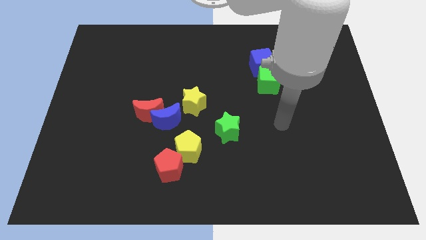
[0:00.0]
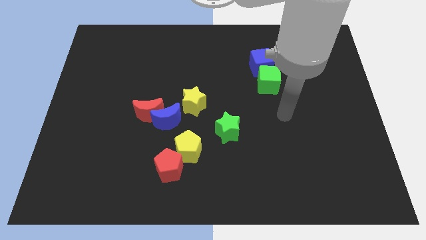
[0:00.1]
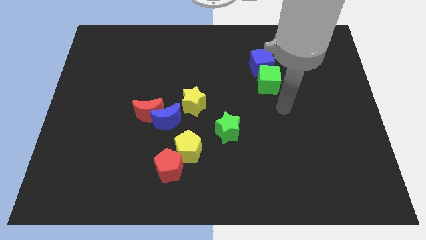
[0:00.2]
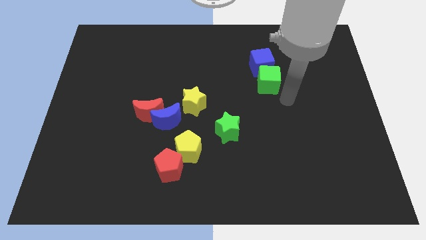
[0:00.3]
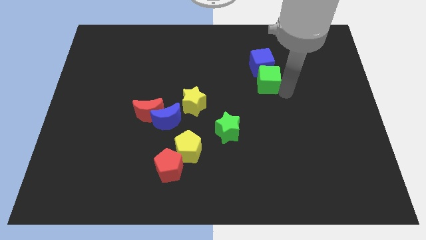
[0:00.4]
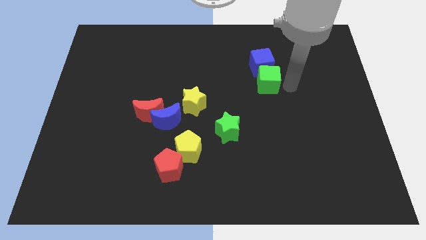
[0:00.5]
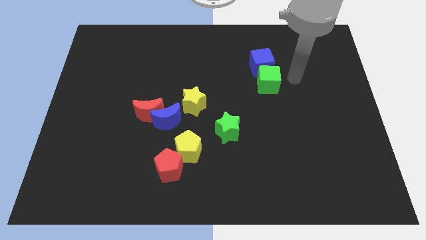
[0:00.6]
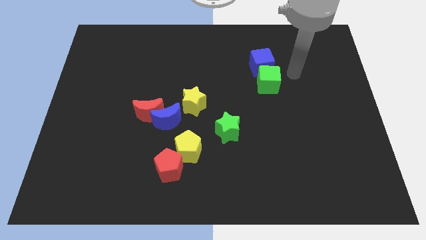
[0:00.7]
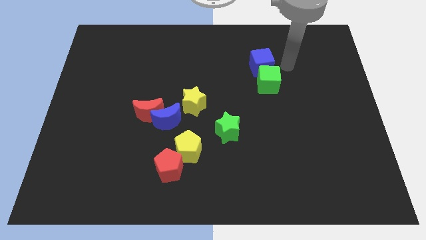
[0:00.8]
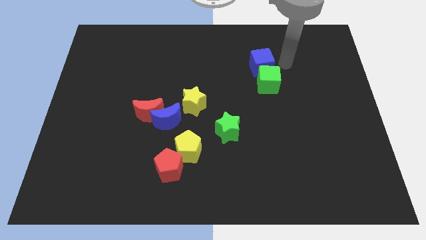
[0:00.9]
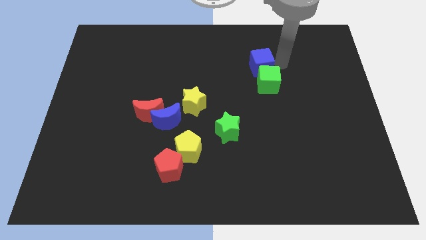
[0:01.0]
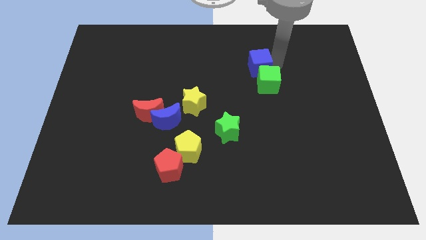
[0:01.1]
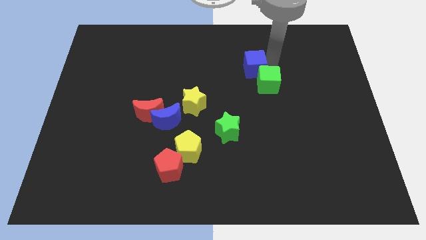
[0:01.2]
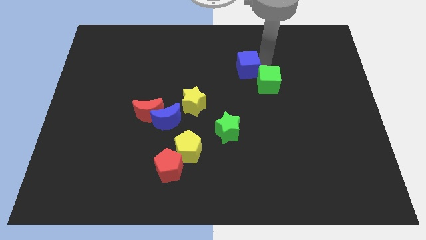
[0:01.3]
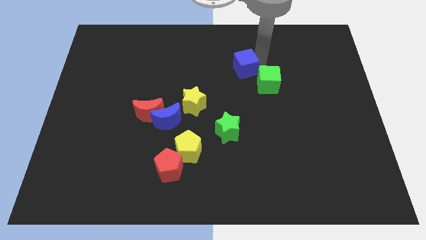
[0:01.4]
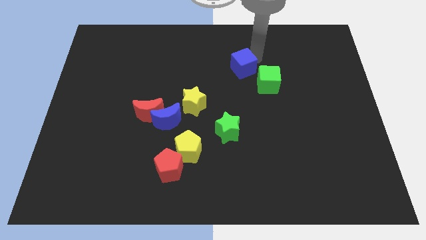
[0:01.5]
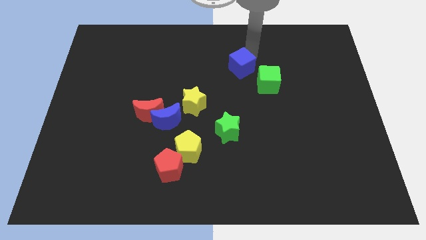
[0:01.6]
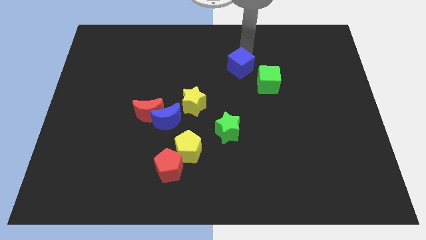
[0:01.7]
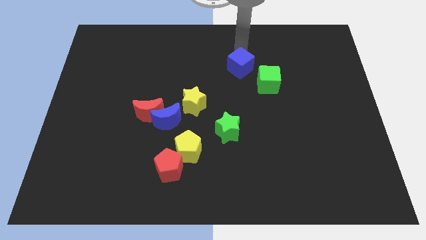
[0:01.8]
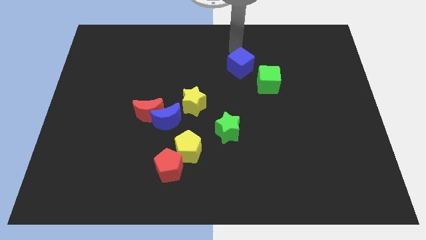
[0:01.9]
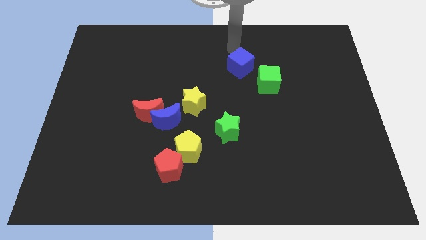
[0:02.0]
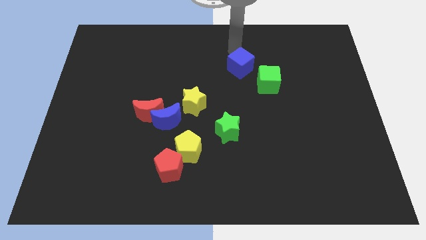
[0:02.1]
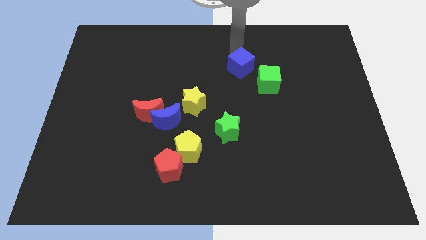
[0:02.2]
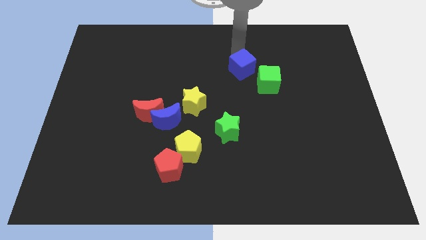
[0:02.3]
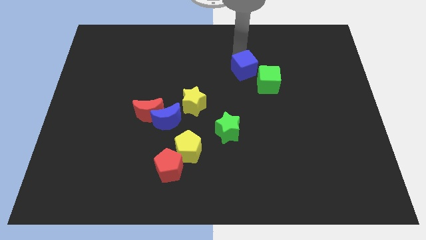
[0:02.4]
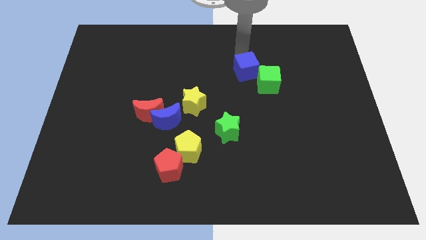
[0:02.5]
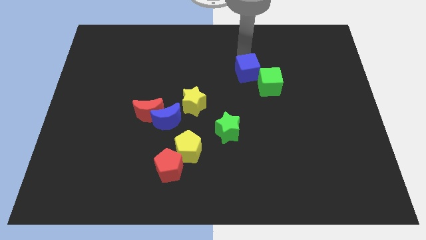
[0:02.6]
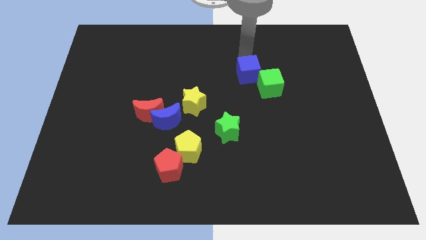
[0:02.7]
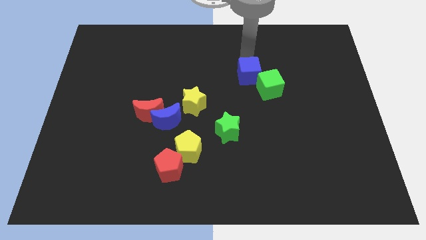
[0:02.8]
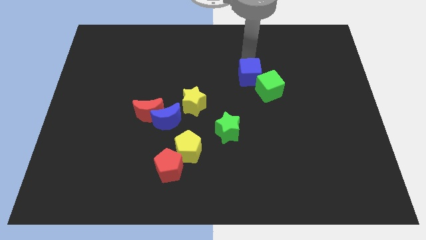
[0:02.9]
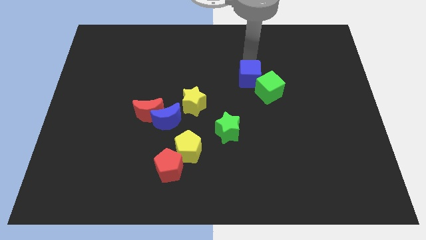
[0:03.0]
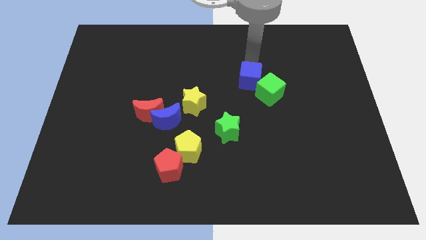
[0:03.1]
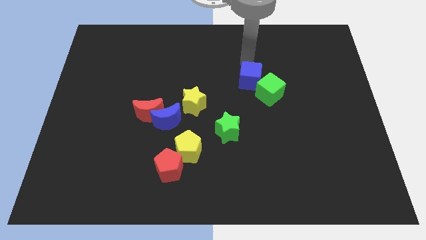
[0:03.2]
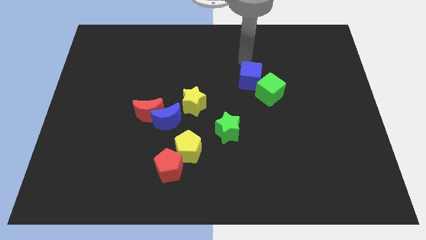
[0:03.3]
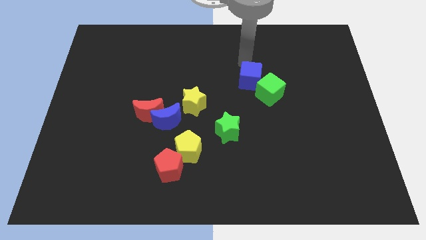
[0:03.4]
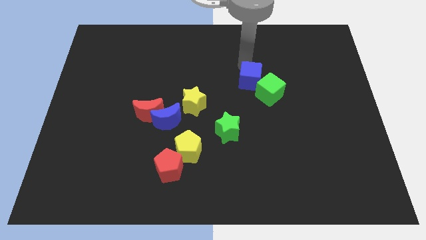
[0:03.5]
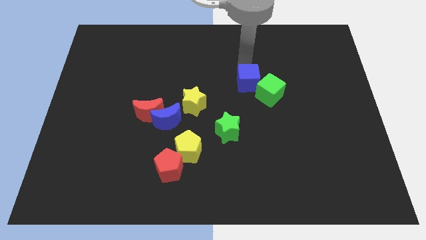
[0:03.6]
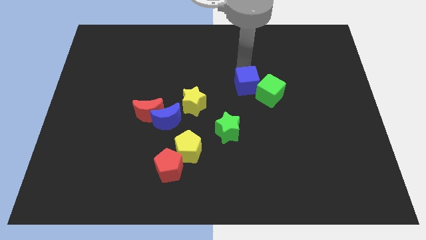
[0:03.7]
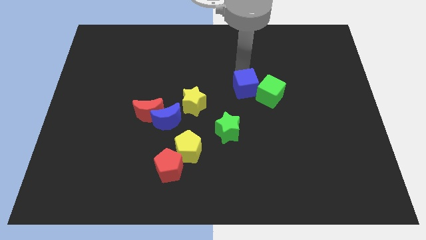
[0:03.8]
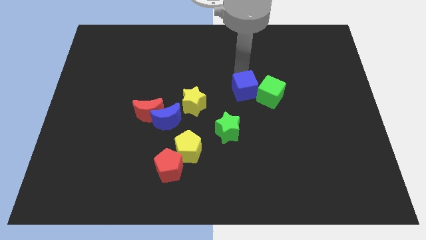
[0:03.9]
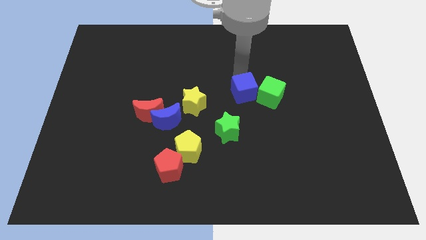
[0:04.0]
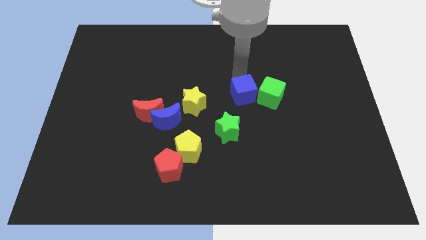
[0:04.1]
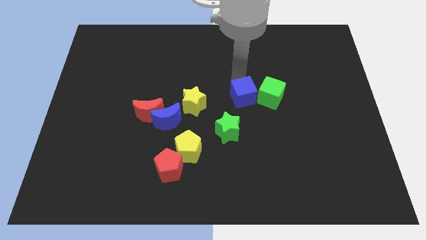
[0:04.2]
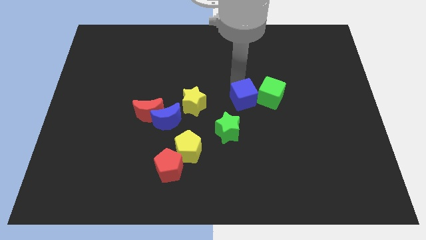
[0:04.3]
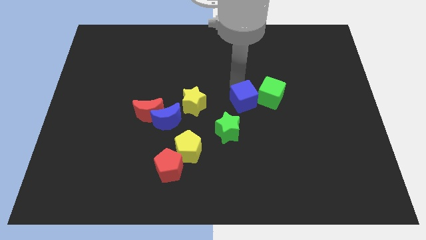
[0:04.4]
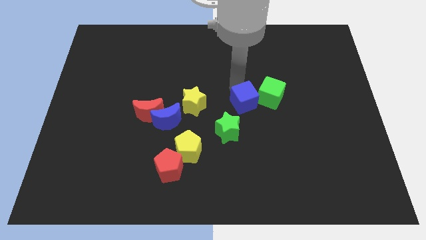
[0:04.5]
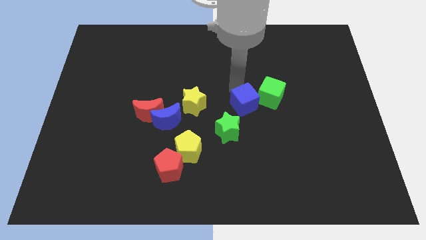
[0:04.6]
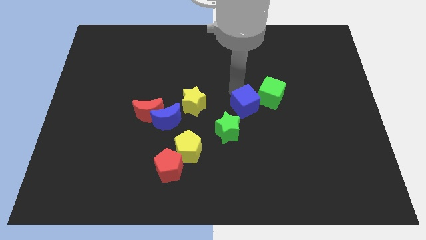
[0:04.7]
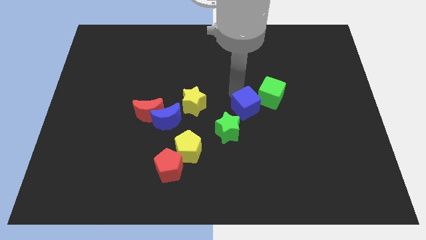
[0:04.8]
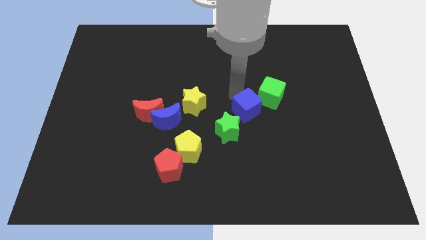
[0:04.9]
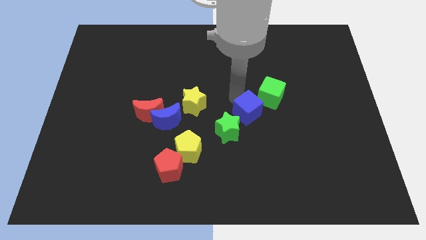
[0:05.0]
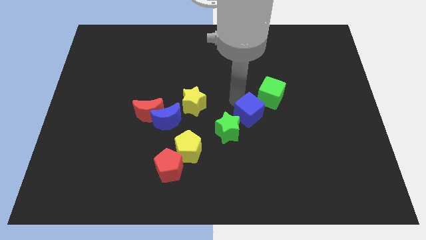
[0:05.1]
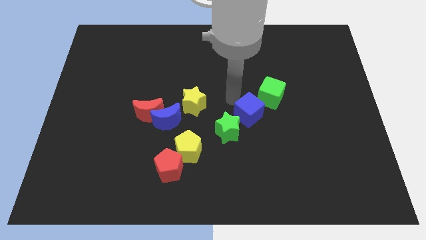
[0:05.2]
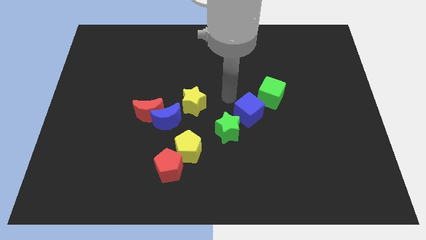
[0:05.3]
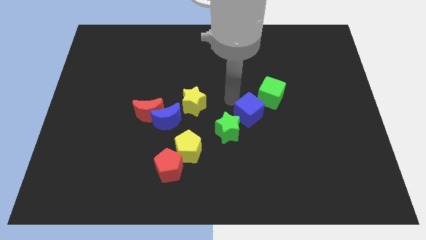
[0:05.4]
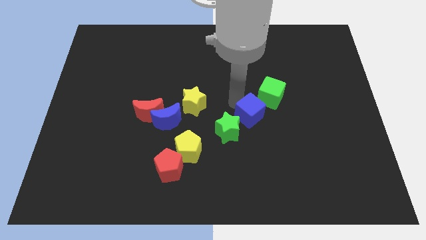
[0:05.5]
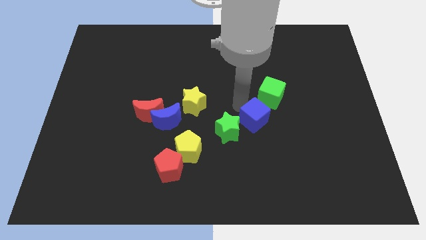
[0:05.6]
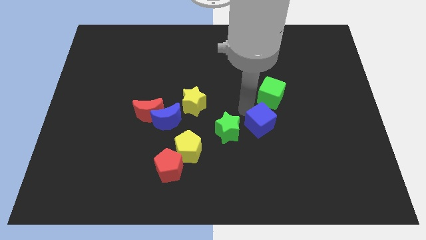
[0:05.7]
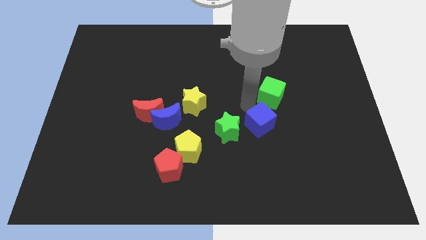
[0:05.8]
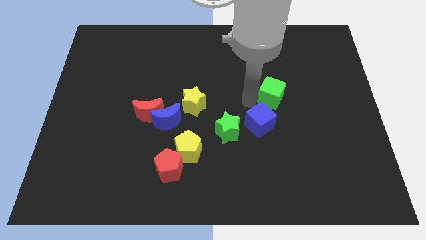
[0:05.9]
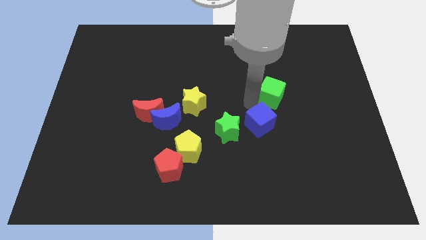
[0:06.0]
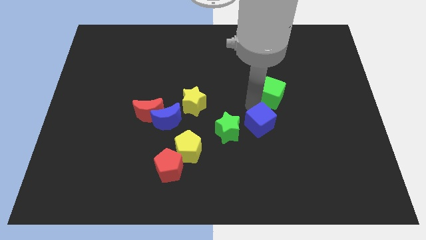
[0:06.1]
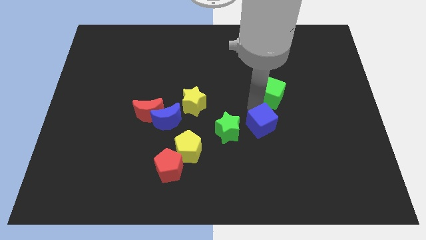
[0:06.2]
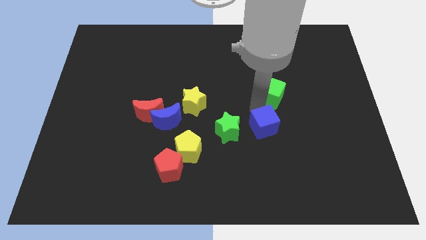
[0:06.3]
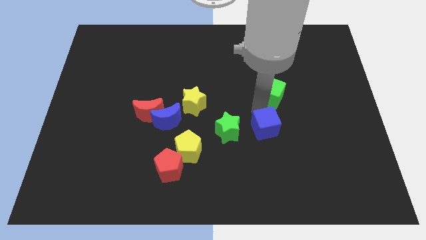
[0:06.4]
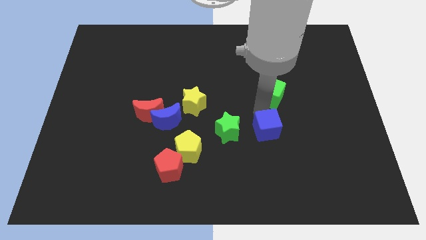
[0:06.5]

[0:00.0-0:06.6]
move the blue cube down

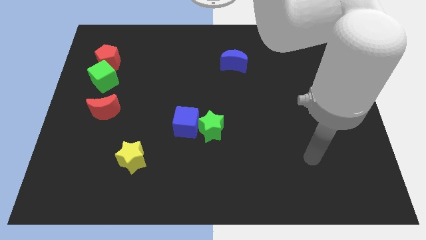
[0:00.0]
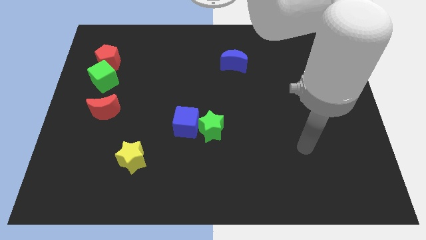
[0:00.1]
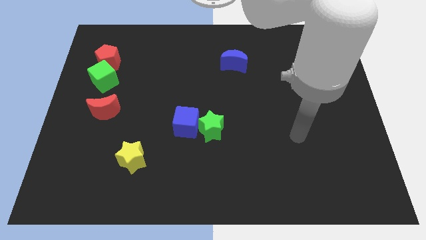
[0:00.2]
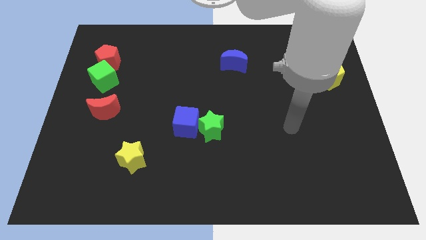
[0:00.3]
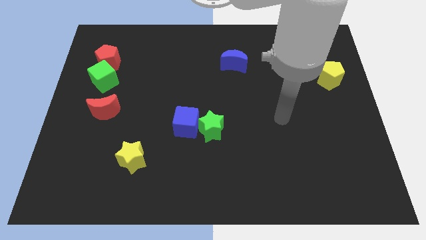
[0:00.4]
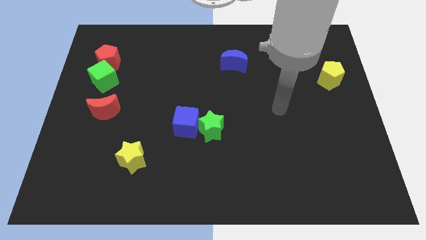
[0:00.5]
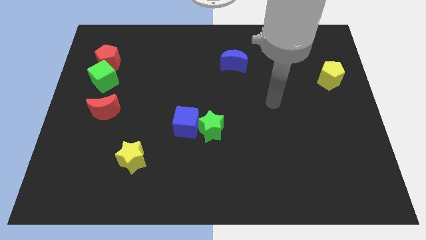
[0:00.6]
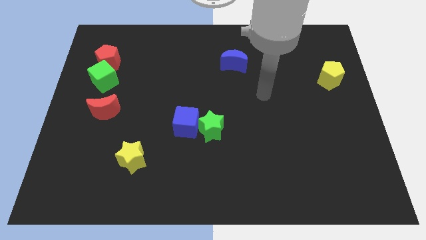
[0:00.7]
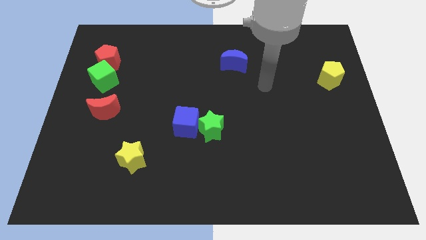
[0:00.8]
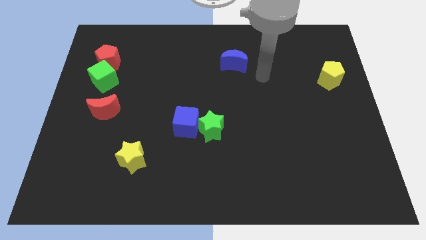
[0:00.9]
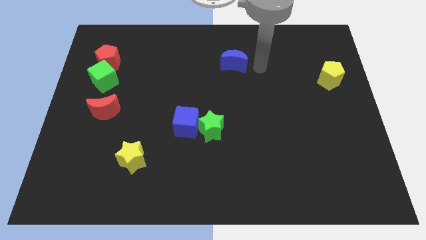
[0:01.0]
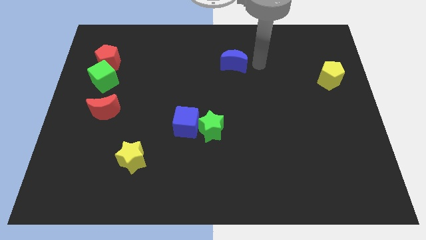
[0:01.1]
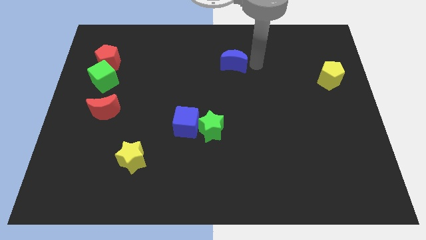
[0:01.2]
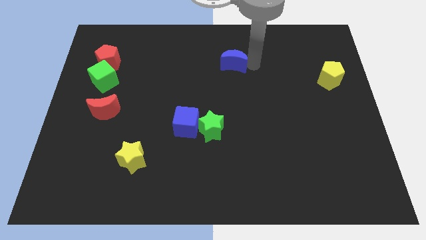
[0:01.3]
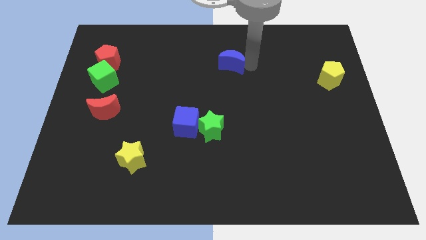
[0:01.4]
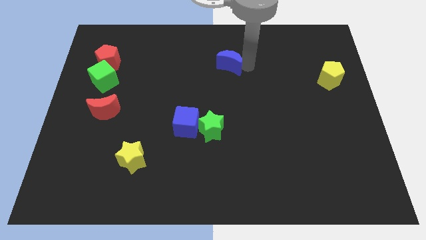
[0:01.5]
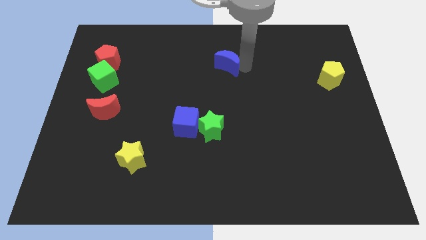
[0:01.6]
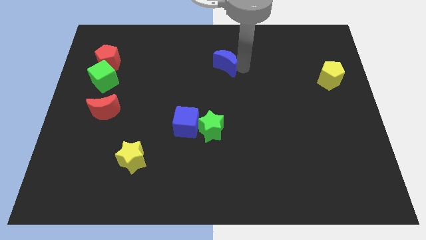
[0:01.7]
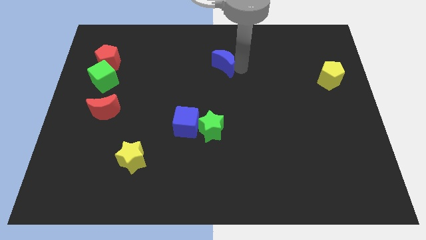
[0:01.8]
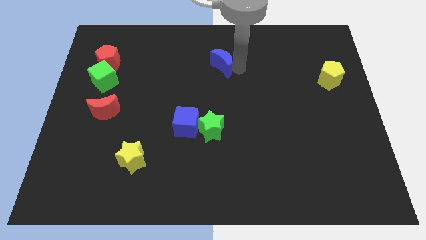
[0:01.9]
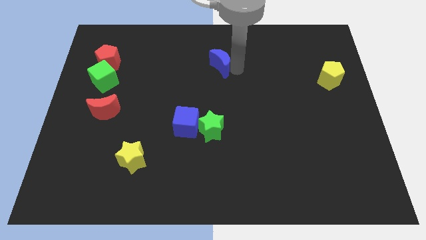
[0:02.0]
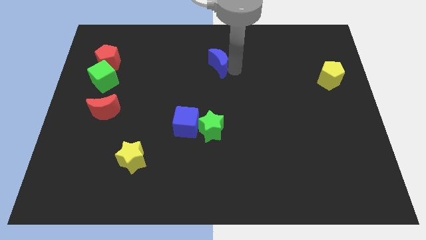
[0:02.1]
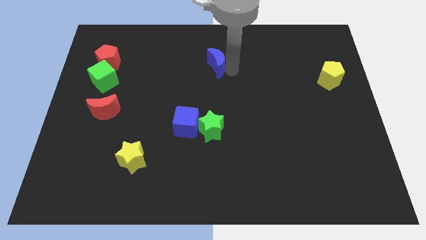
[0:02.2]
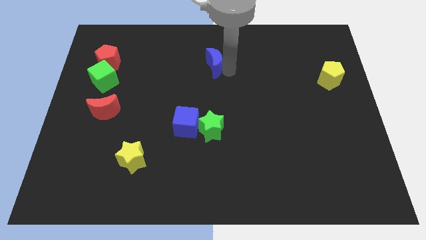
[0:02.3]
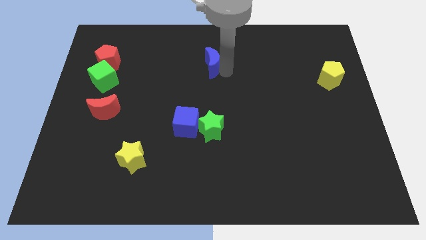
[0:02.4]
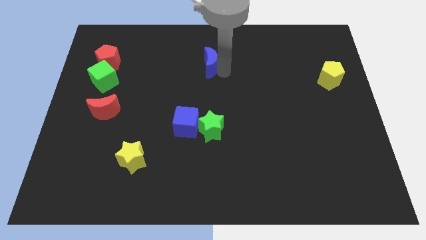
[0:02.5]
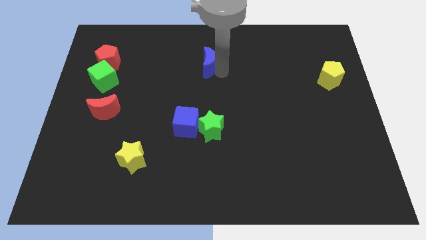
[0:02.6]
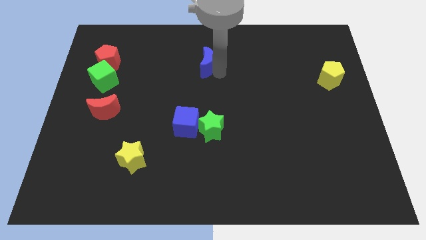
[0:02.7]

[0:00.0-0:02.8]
slightly push the blue moon left
